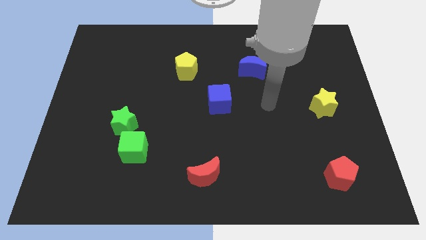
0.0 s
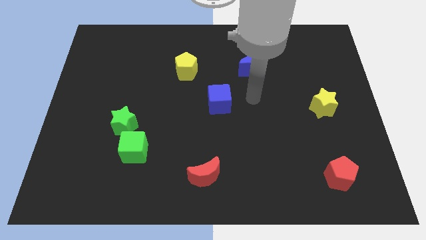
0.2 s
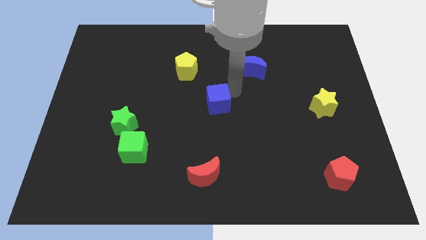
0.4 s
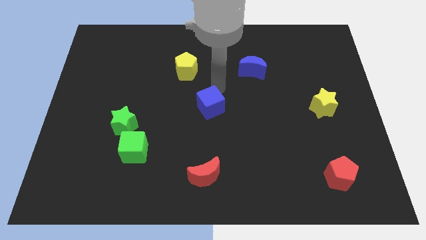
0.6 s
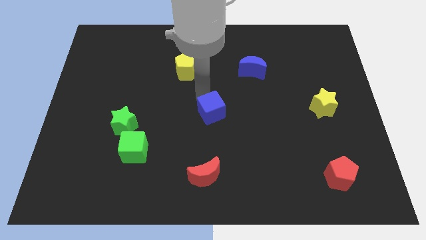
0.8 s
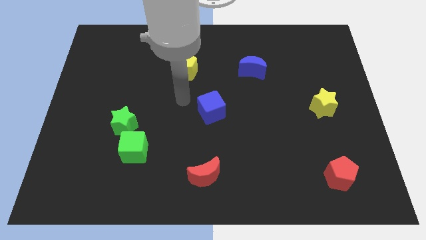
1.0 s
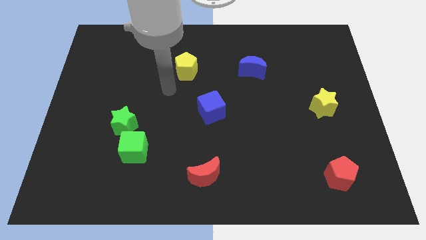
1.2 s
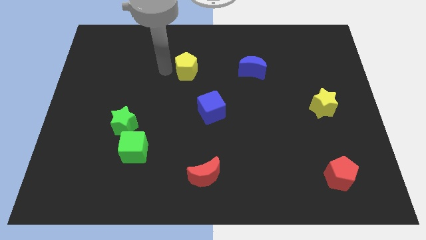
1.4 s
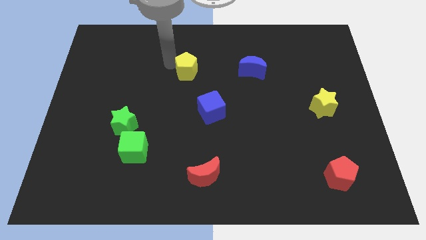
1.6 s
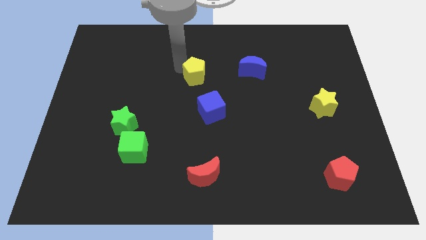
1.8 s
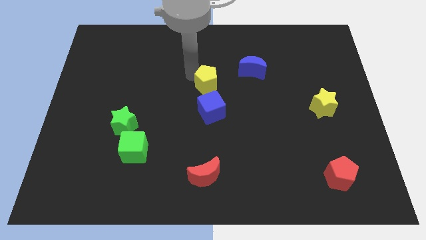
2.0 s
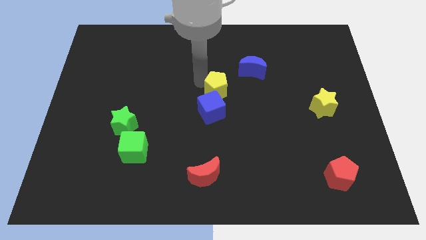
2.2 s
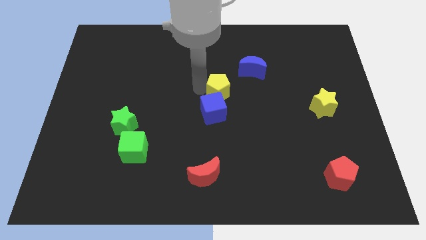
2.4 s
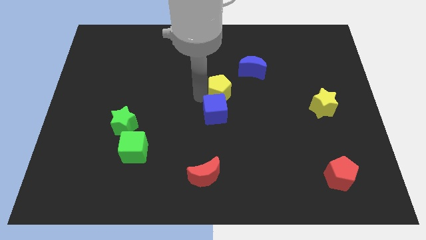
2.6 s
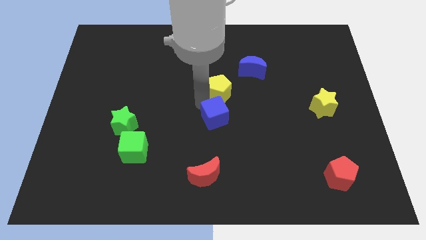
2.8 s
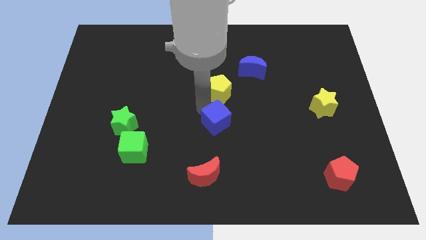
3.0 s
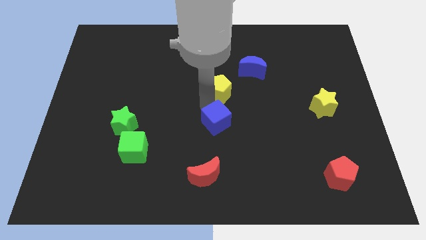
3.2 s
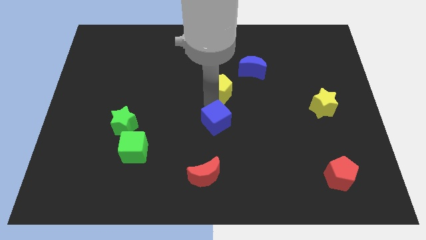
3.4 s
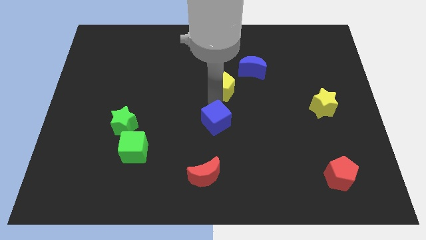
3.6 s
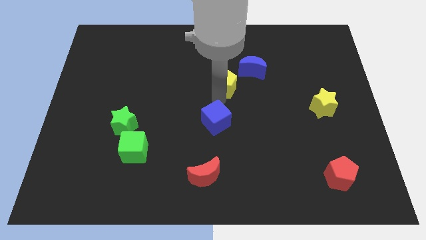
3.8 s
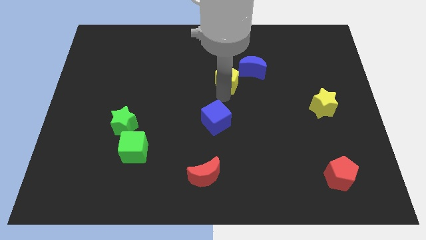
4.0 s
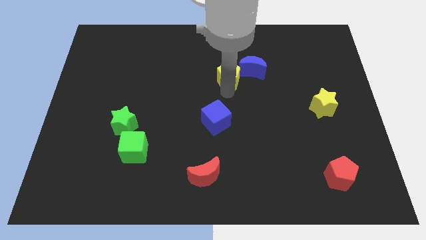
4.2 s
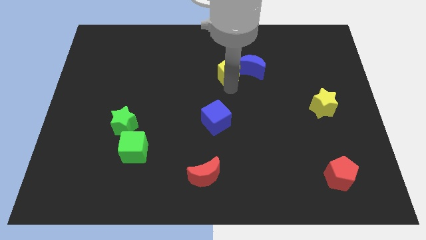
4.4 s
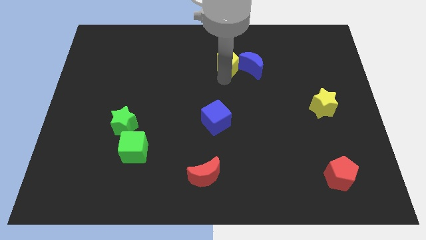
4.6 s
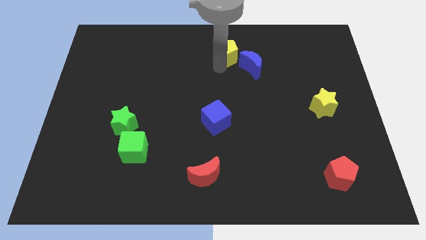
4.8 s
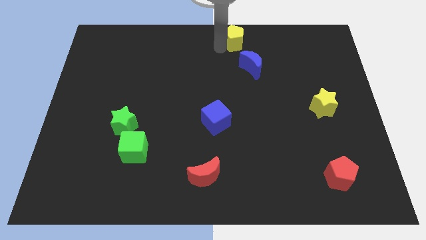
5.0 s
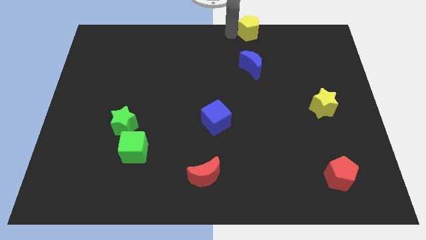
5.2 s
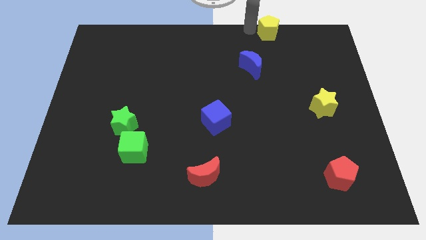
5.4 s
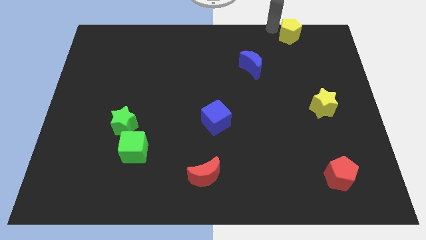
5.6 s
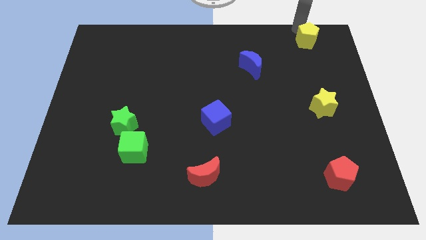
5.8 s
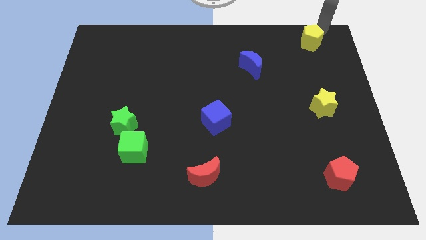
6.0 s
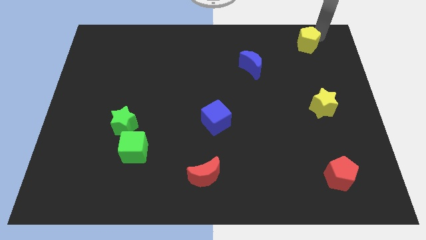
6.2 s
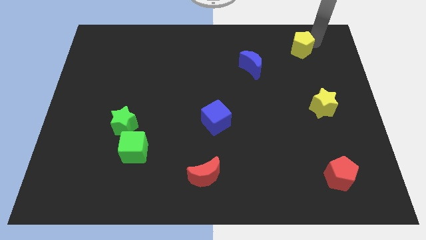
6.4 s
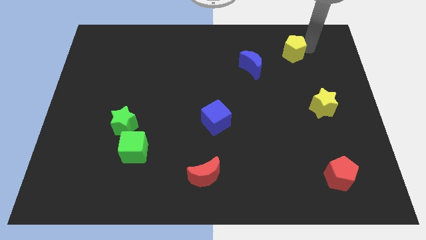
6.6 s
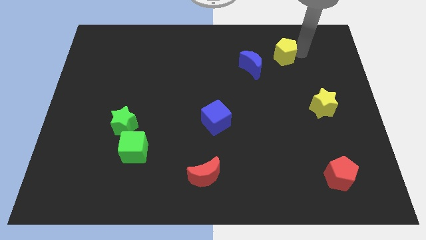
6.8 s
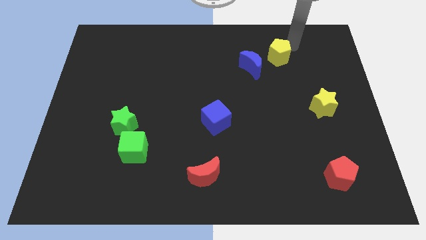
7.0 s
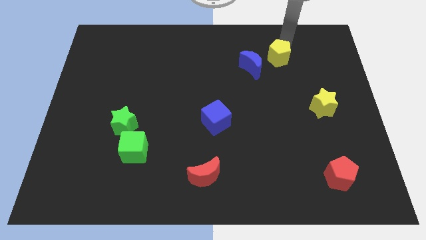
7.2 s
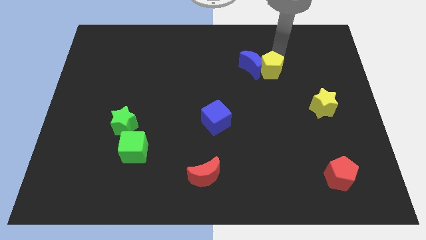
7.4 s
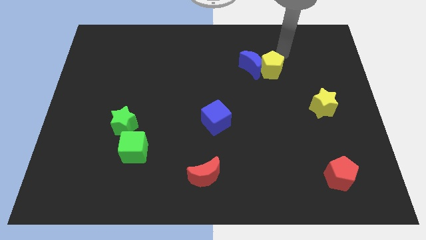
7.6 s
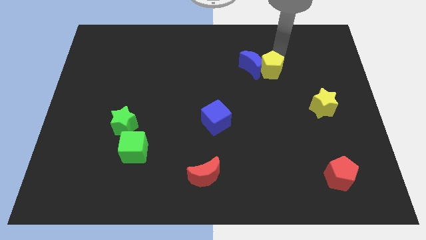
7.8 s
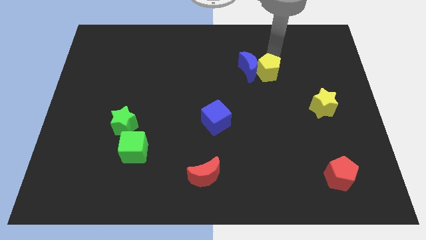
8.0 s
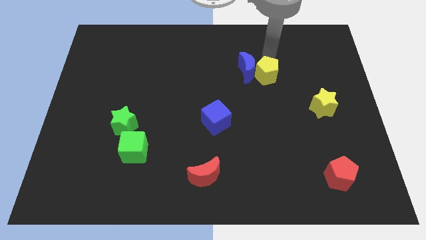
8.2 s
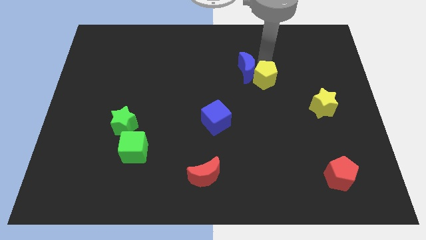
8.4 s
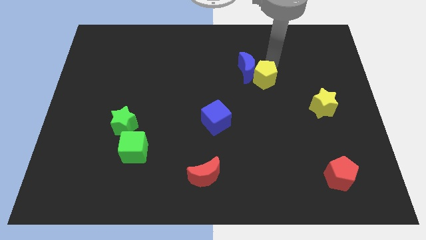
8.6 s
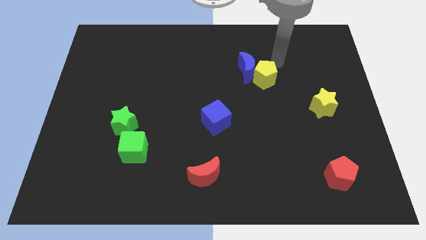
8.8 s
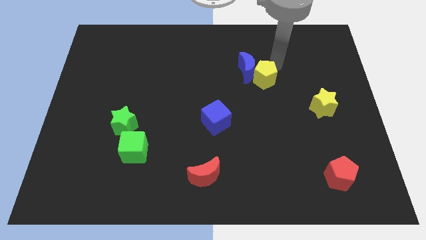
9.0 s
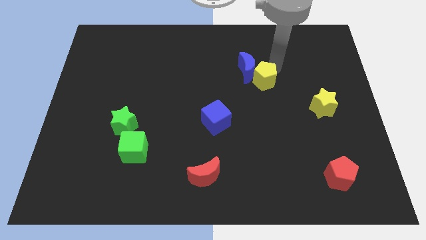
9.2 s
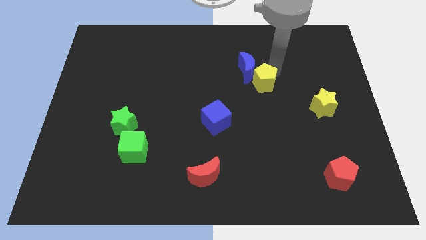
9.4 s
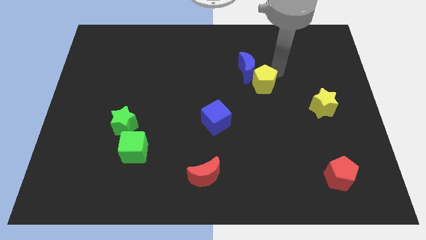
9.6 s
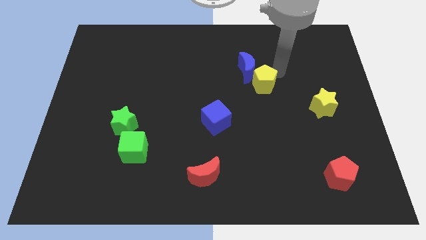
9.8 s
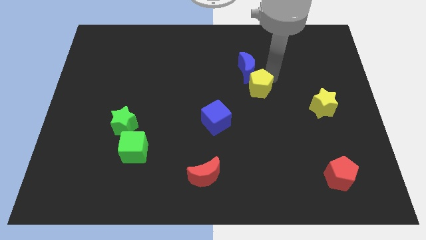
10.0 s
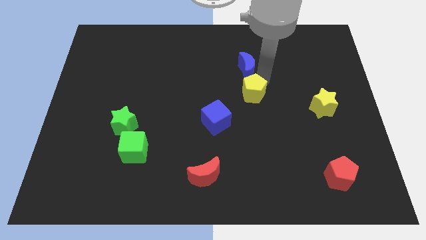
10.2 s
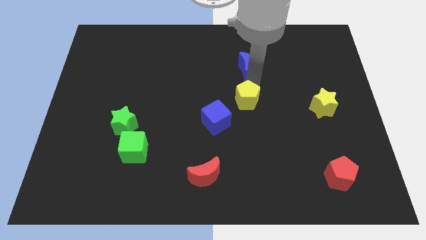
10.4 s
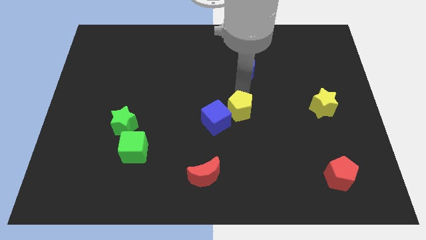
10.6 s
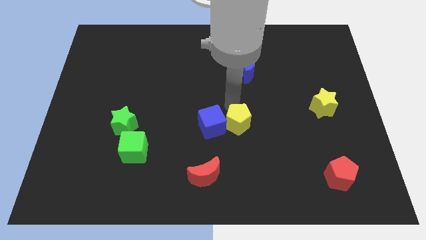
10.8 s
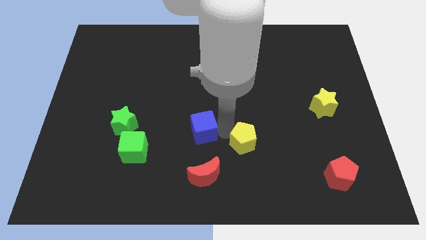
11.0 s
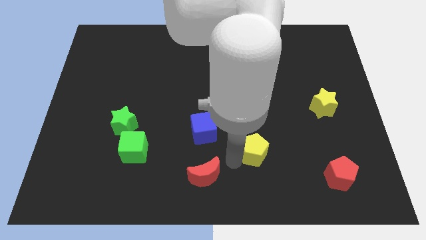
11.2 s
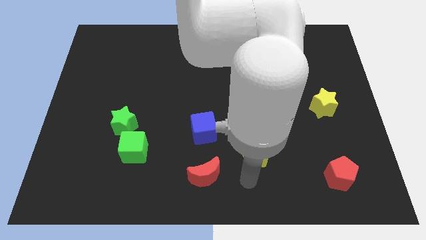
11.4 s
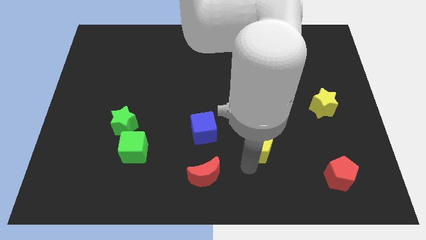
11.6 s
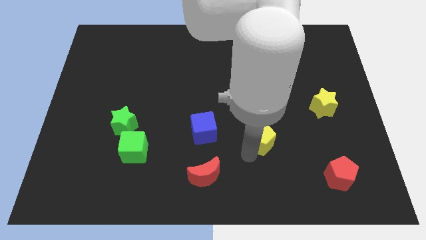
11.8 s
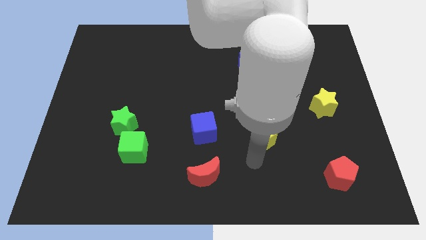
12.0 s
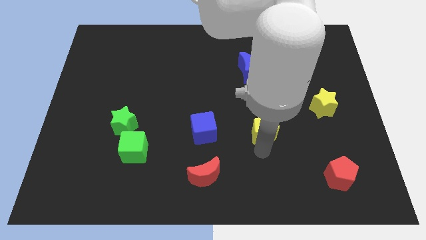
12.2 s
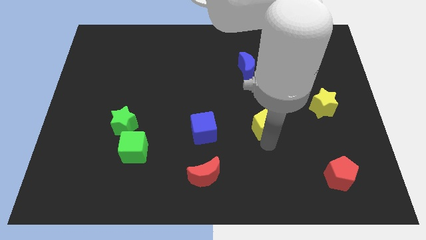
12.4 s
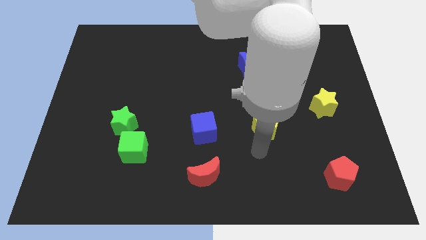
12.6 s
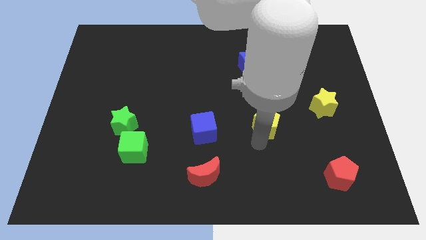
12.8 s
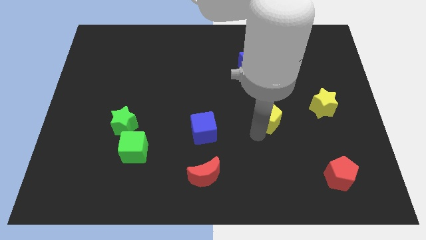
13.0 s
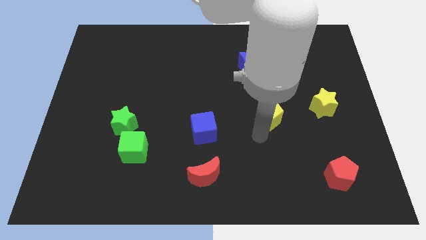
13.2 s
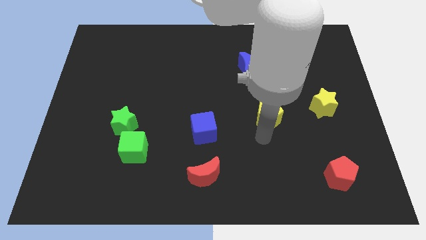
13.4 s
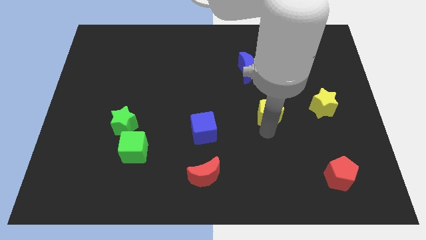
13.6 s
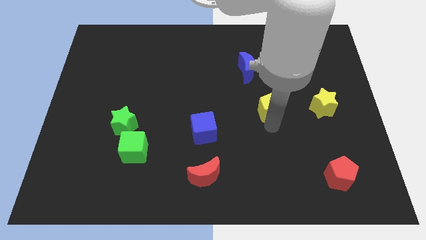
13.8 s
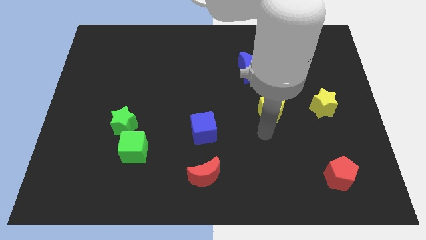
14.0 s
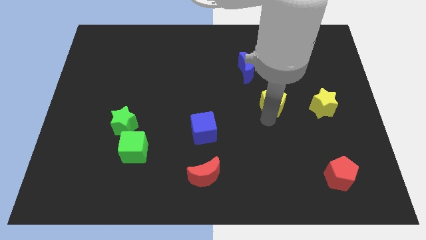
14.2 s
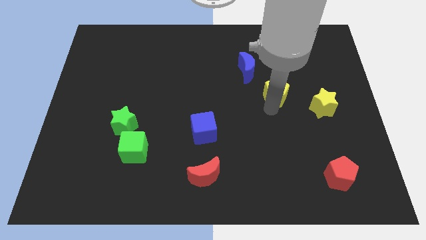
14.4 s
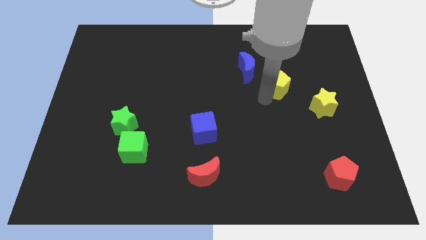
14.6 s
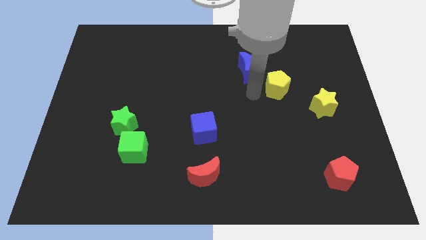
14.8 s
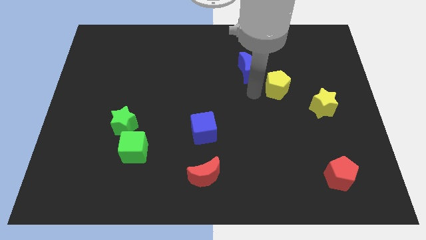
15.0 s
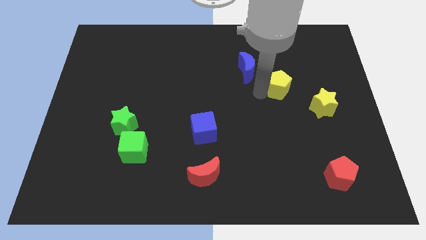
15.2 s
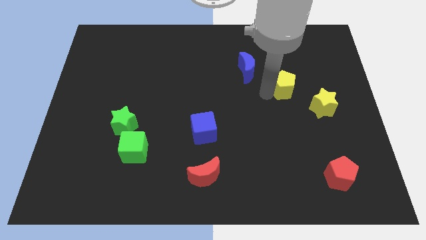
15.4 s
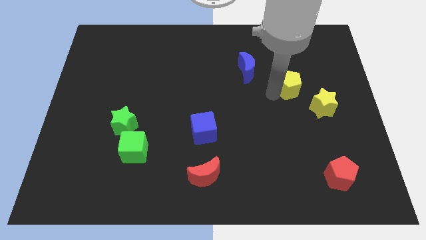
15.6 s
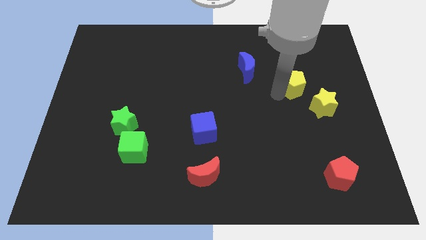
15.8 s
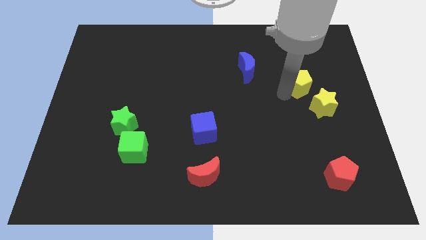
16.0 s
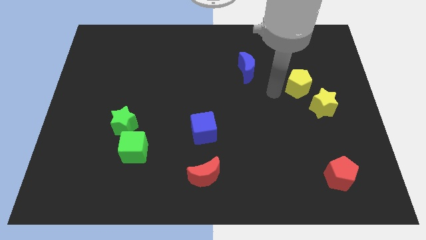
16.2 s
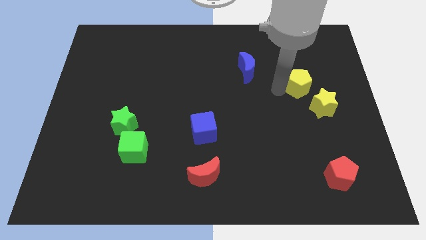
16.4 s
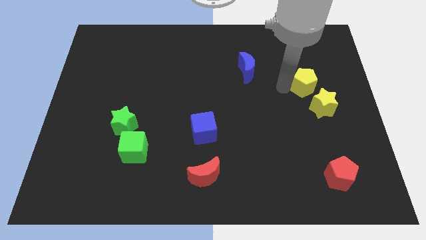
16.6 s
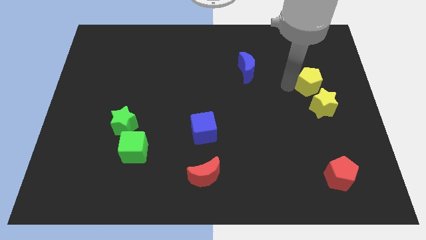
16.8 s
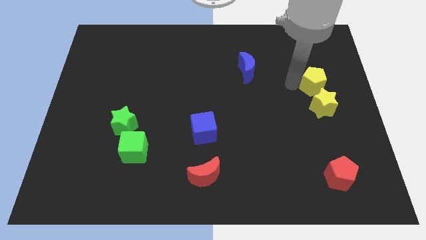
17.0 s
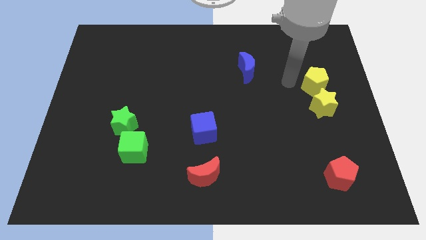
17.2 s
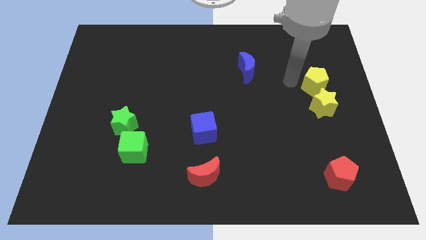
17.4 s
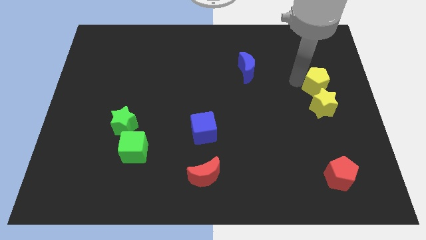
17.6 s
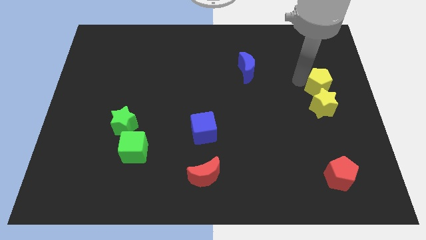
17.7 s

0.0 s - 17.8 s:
move the yellow pentagon to the right side of the board
